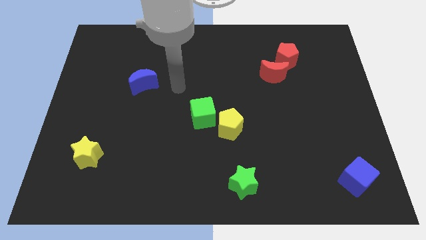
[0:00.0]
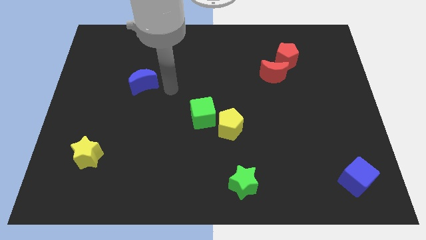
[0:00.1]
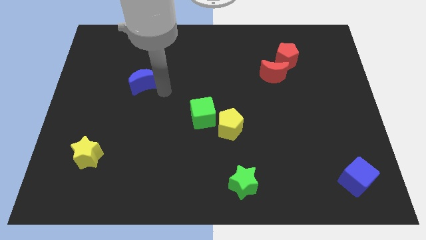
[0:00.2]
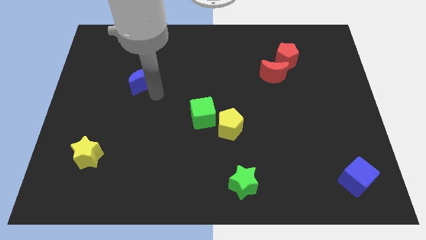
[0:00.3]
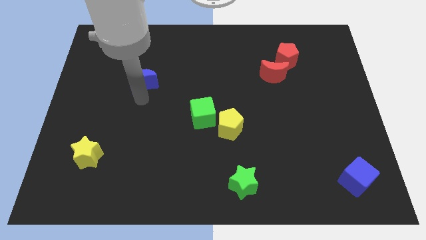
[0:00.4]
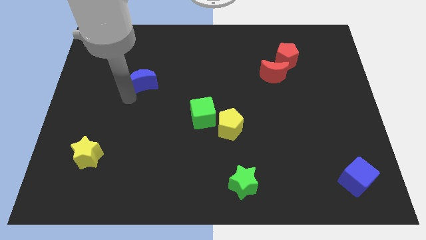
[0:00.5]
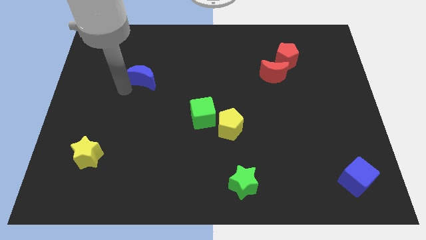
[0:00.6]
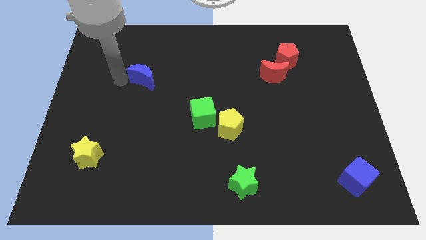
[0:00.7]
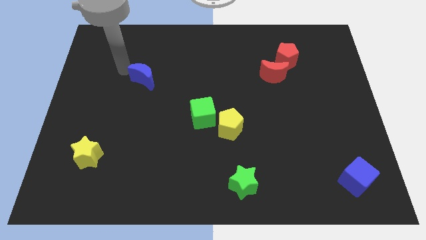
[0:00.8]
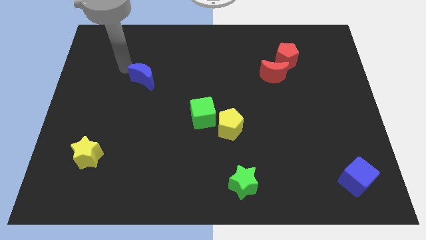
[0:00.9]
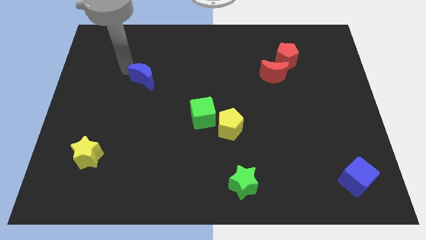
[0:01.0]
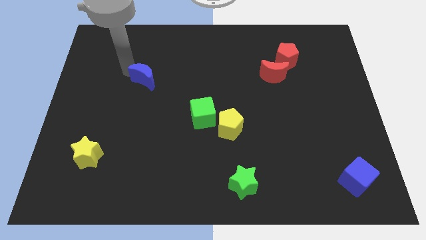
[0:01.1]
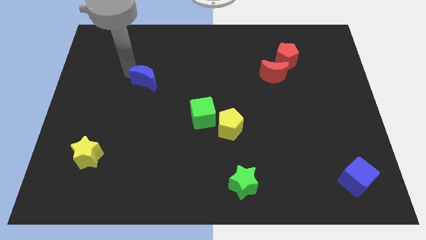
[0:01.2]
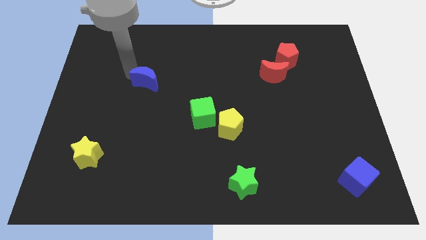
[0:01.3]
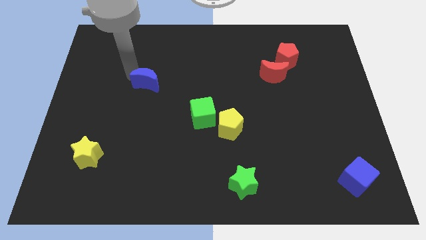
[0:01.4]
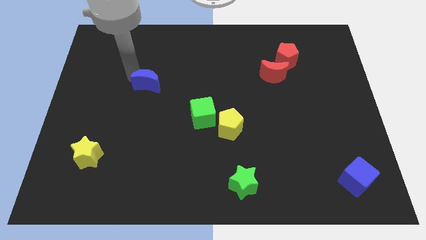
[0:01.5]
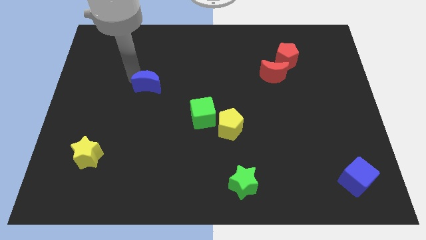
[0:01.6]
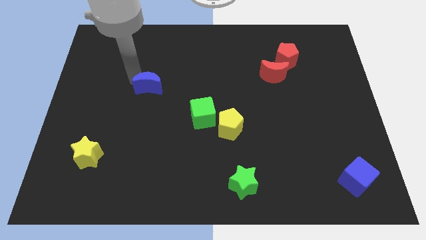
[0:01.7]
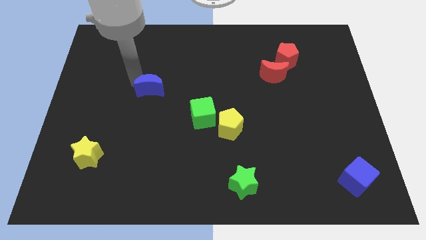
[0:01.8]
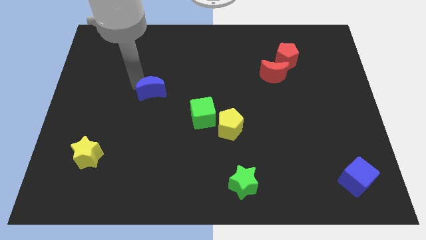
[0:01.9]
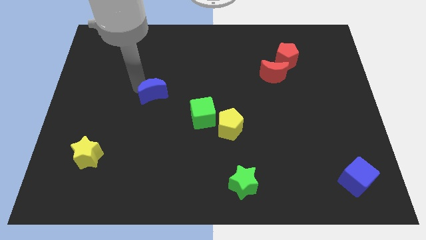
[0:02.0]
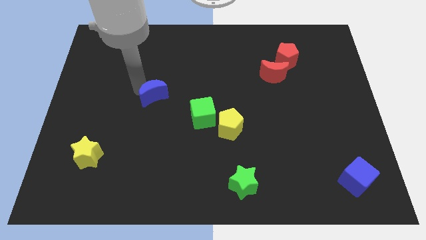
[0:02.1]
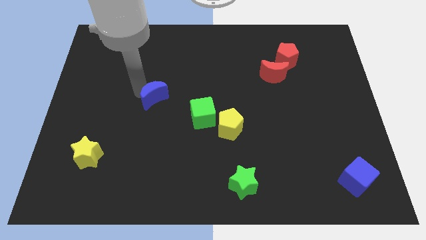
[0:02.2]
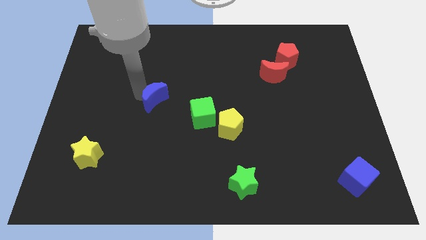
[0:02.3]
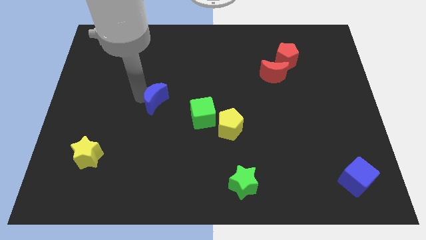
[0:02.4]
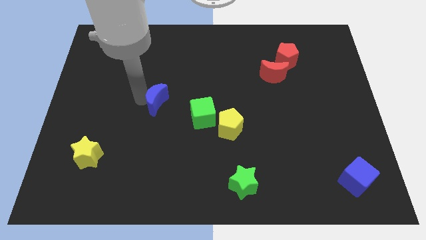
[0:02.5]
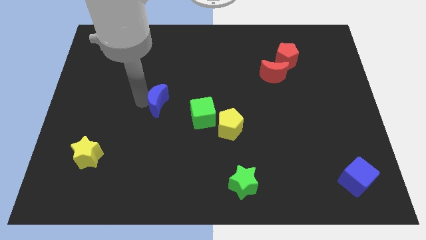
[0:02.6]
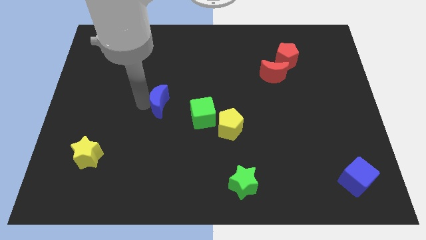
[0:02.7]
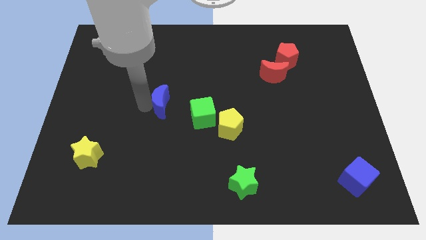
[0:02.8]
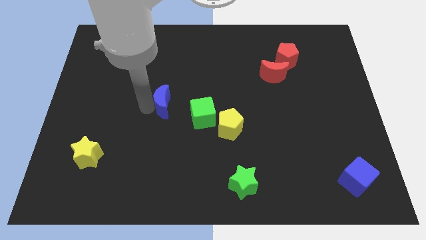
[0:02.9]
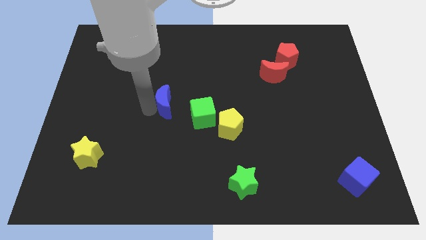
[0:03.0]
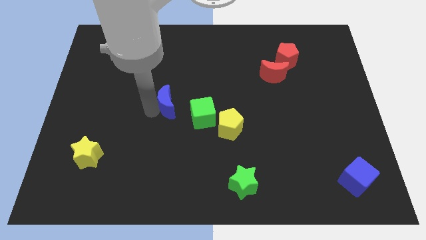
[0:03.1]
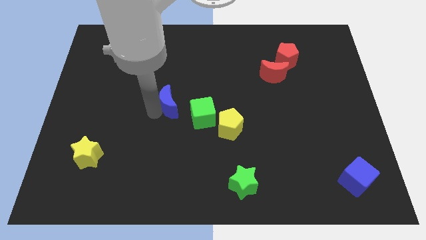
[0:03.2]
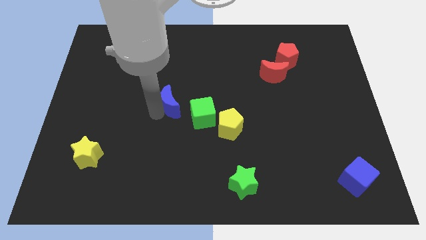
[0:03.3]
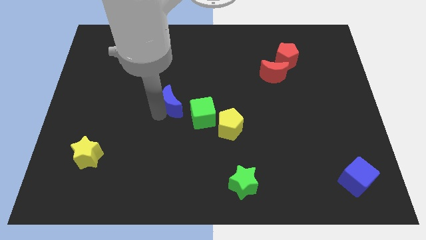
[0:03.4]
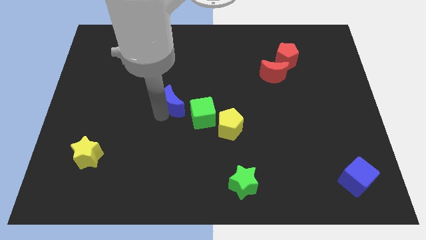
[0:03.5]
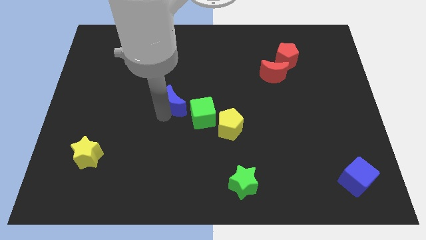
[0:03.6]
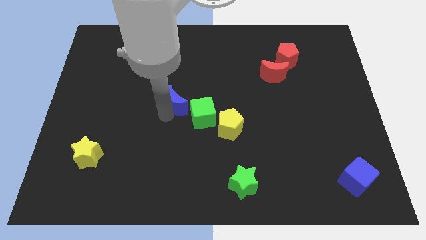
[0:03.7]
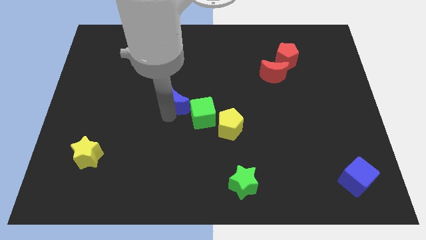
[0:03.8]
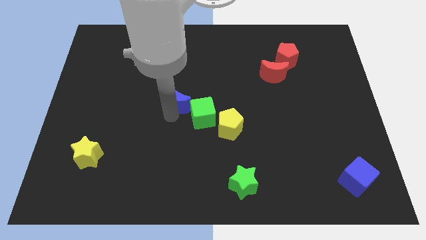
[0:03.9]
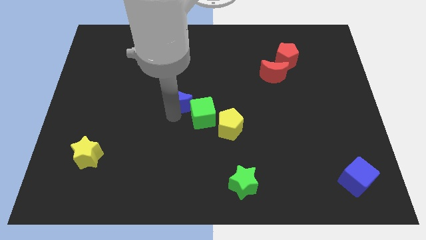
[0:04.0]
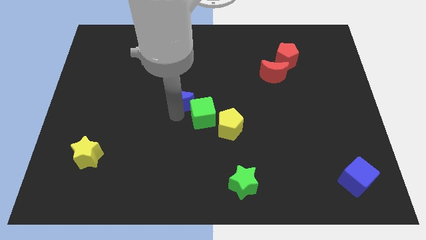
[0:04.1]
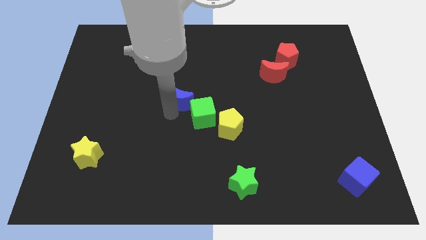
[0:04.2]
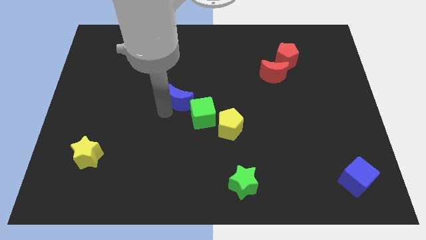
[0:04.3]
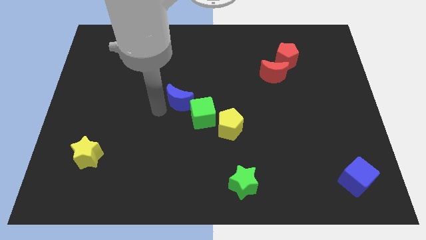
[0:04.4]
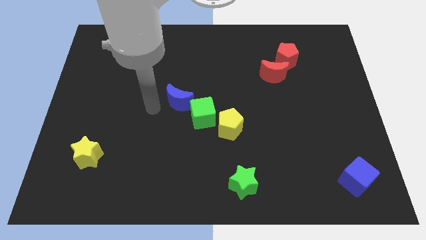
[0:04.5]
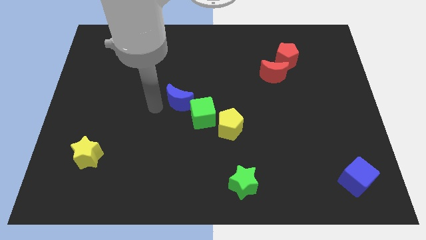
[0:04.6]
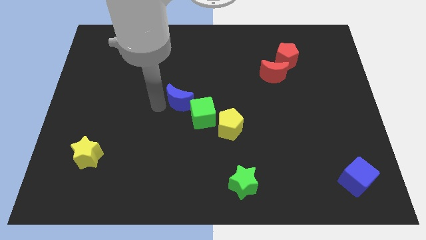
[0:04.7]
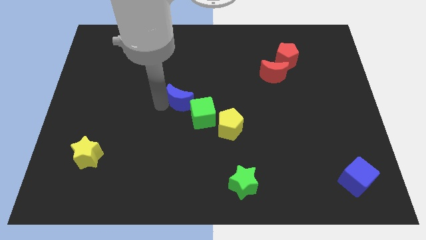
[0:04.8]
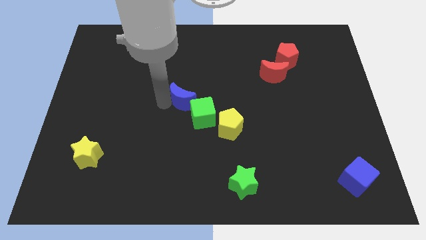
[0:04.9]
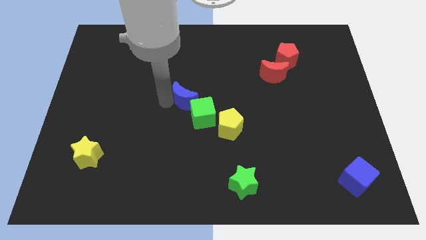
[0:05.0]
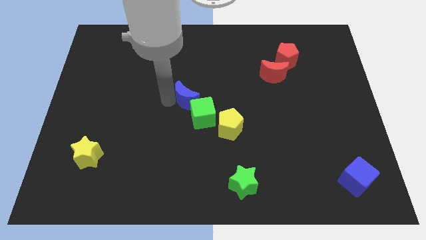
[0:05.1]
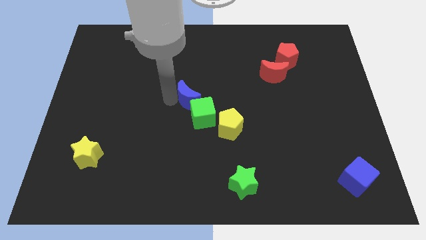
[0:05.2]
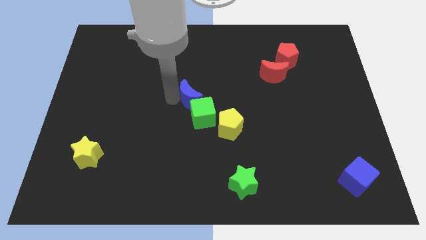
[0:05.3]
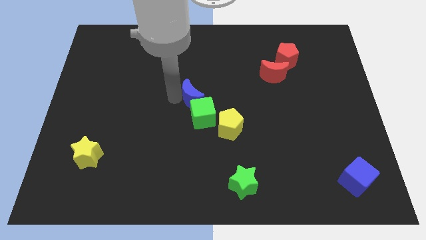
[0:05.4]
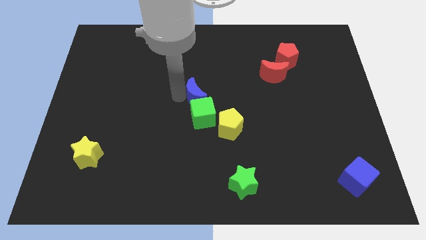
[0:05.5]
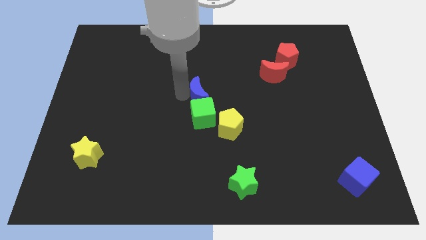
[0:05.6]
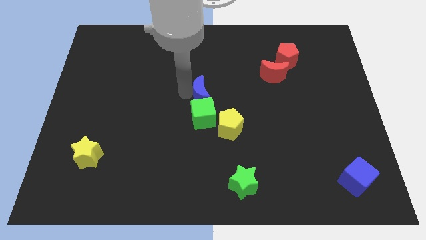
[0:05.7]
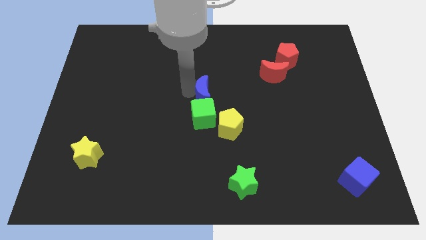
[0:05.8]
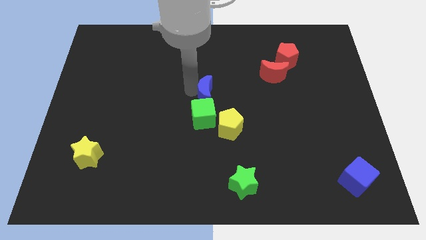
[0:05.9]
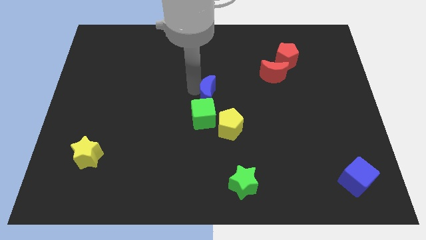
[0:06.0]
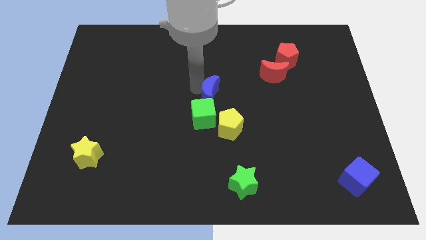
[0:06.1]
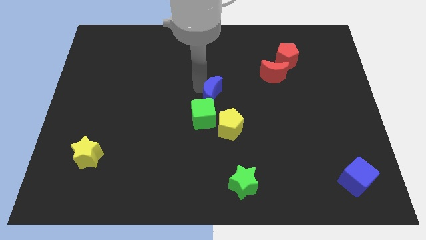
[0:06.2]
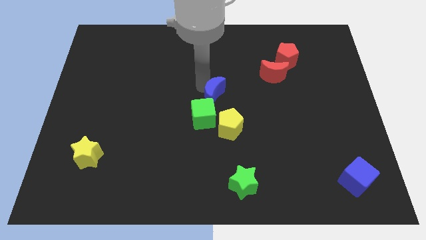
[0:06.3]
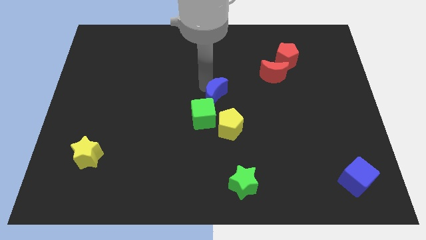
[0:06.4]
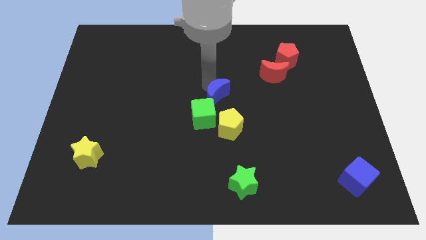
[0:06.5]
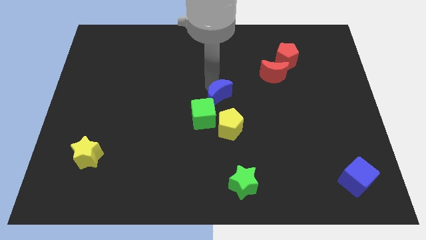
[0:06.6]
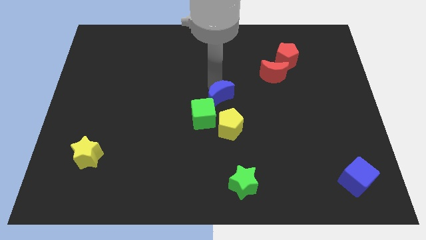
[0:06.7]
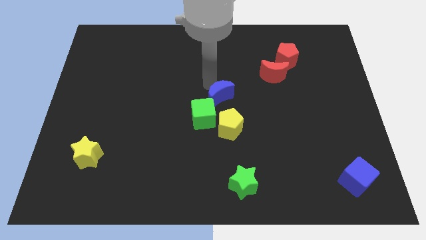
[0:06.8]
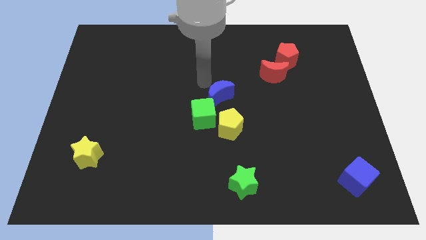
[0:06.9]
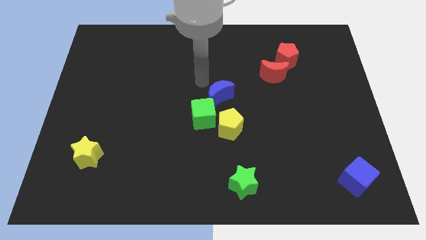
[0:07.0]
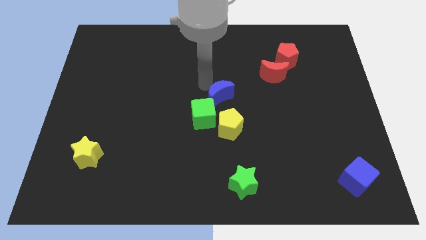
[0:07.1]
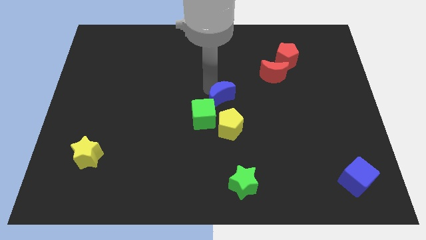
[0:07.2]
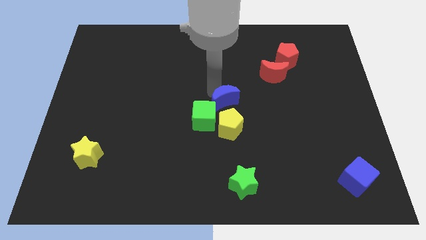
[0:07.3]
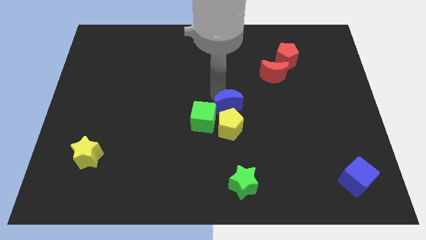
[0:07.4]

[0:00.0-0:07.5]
push the blue moon to the right side of the green cube
